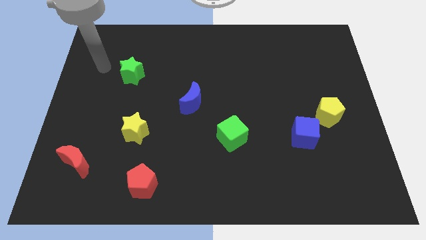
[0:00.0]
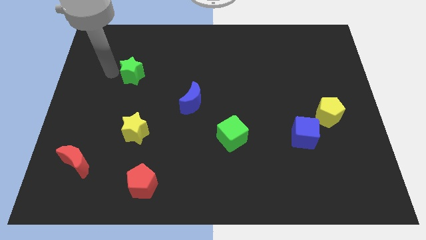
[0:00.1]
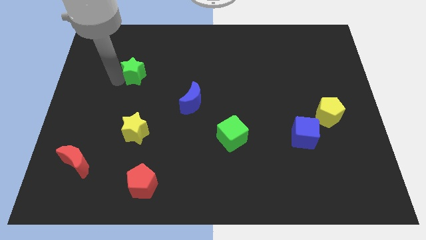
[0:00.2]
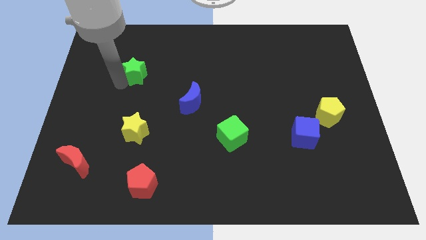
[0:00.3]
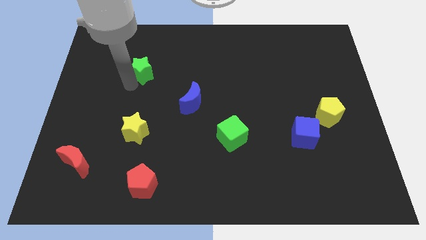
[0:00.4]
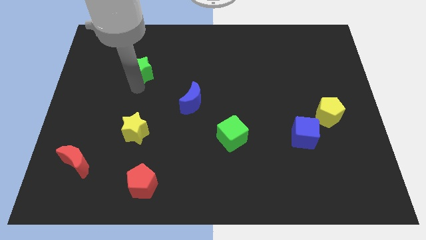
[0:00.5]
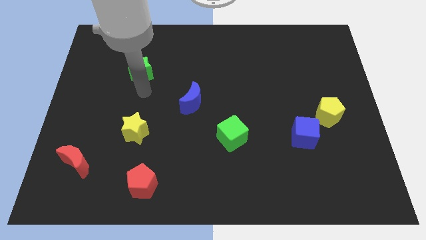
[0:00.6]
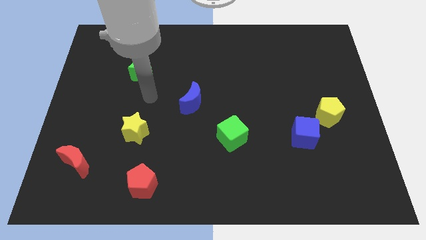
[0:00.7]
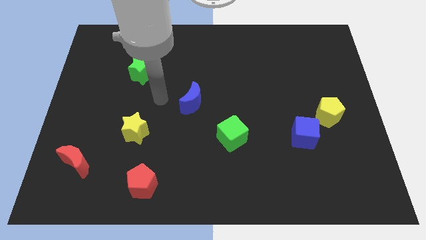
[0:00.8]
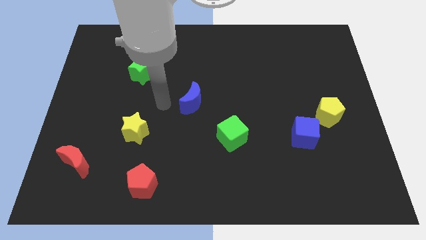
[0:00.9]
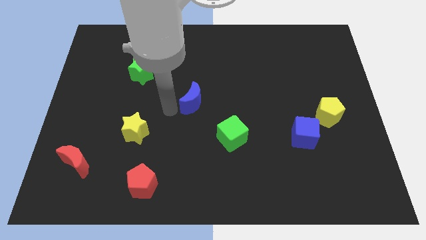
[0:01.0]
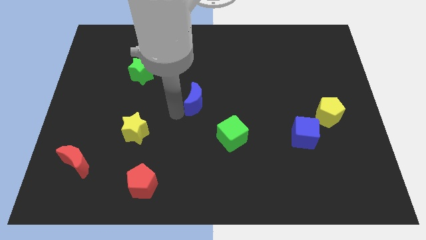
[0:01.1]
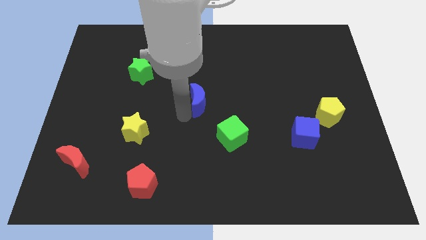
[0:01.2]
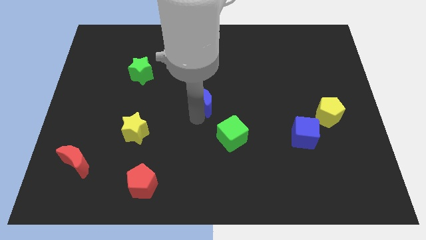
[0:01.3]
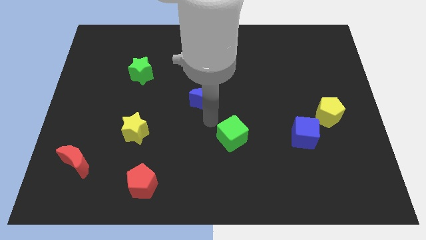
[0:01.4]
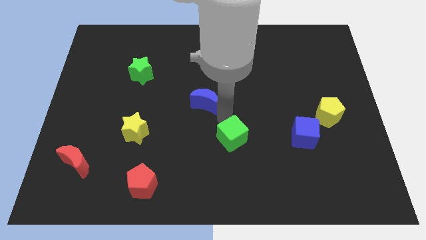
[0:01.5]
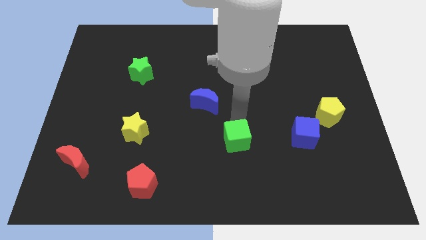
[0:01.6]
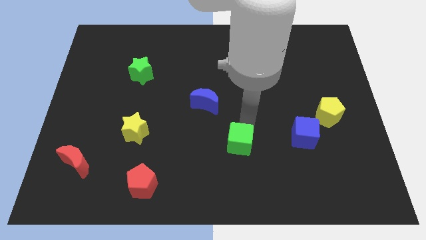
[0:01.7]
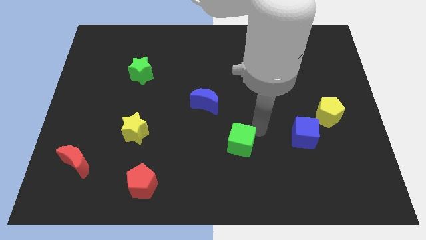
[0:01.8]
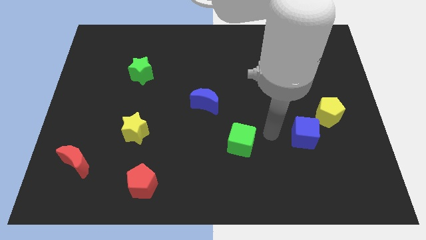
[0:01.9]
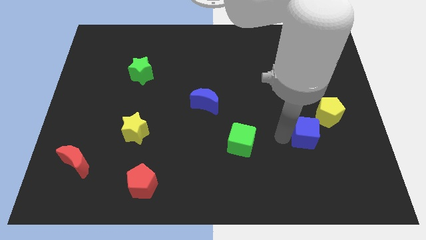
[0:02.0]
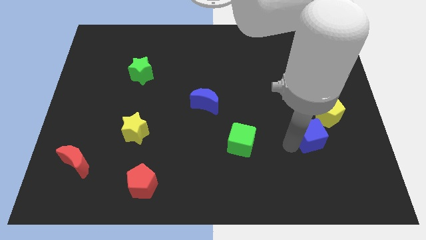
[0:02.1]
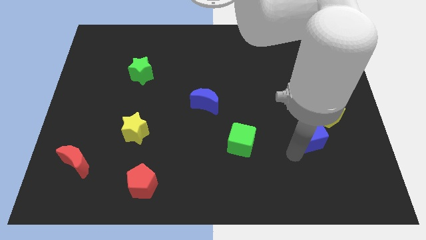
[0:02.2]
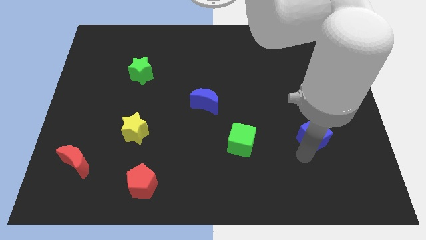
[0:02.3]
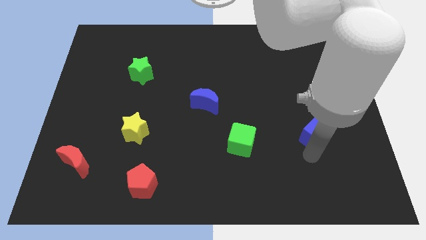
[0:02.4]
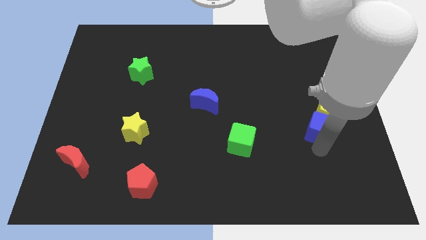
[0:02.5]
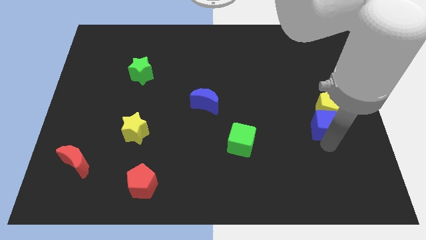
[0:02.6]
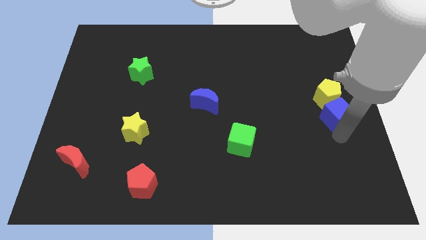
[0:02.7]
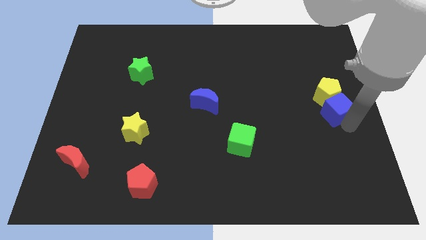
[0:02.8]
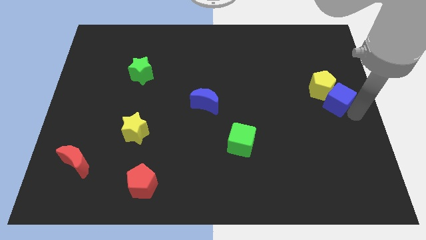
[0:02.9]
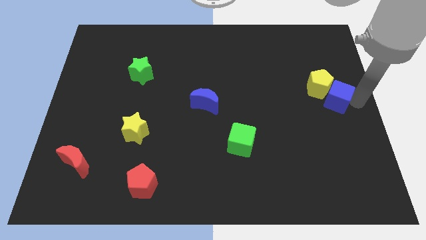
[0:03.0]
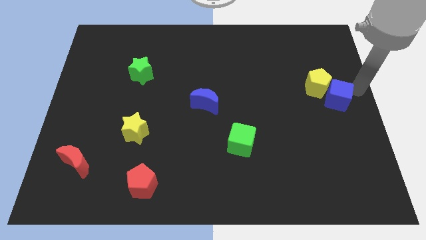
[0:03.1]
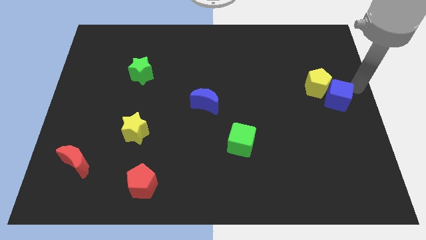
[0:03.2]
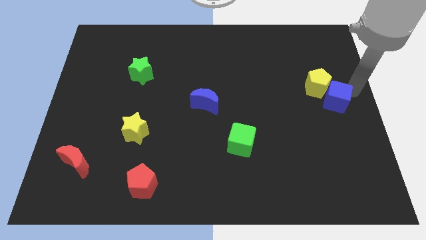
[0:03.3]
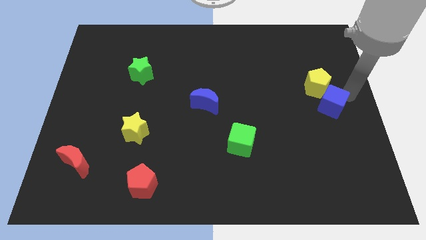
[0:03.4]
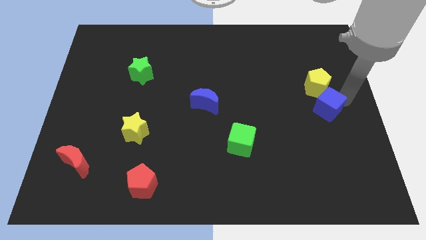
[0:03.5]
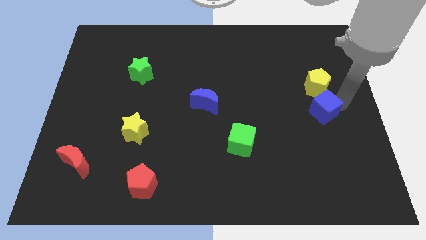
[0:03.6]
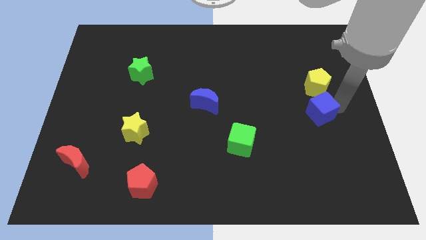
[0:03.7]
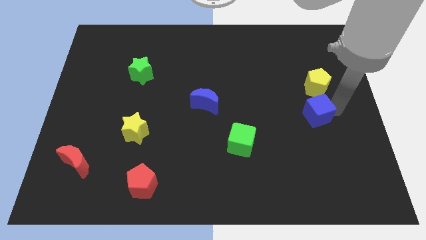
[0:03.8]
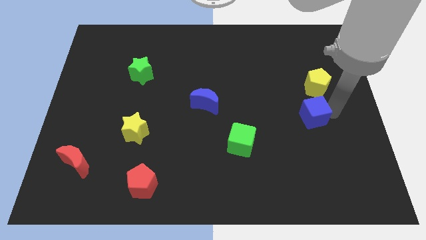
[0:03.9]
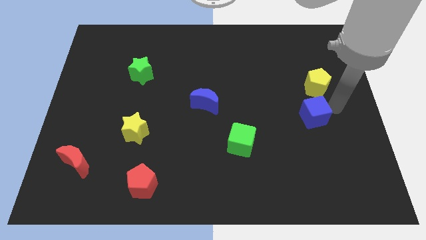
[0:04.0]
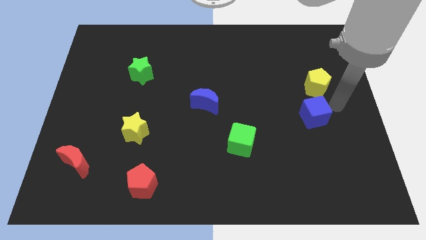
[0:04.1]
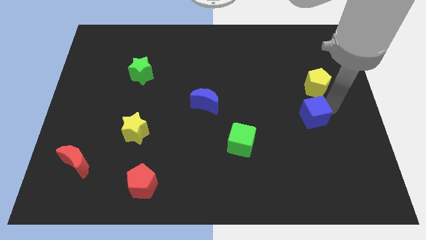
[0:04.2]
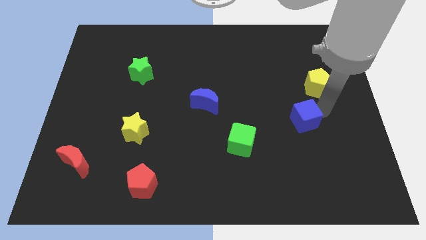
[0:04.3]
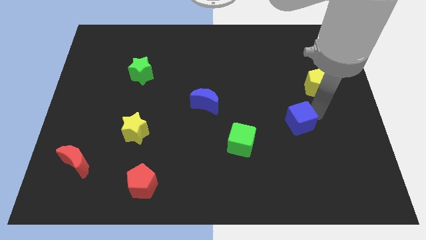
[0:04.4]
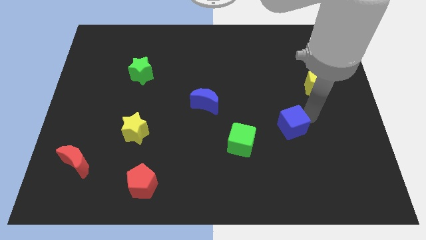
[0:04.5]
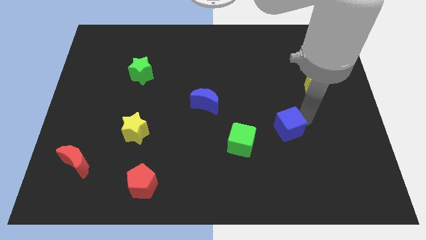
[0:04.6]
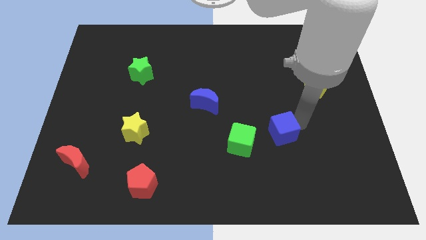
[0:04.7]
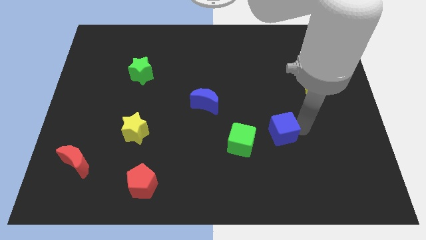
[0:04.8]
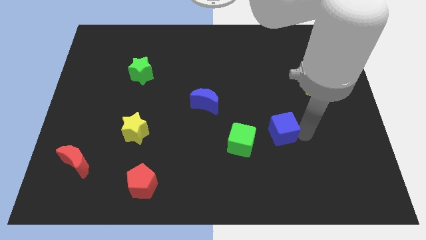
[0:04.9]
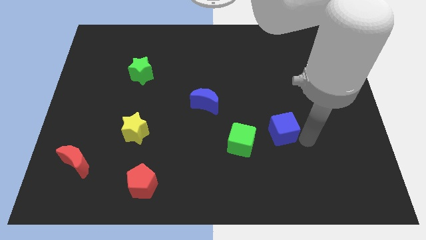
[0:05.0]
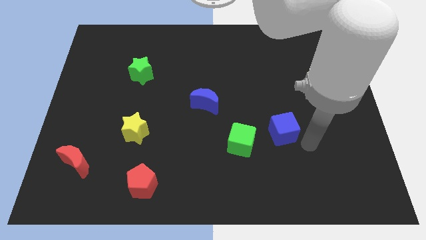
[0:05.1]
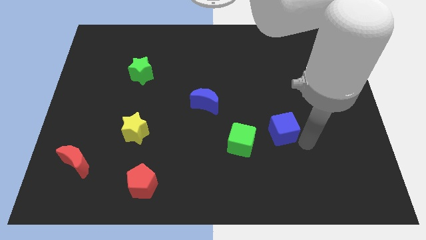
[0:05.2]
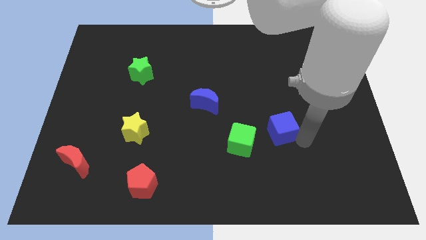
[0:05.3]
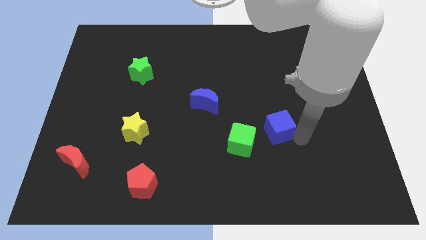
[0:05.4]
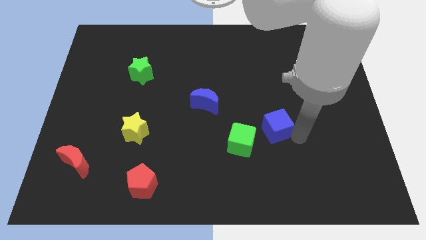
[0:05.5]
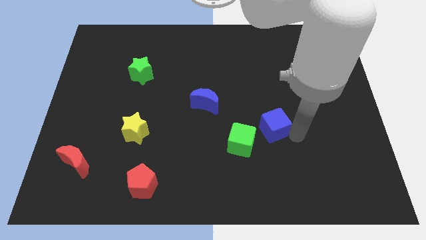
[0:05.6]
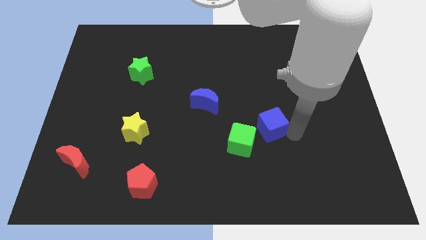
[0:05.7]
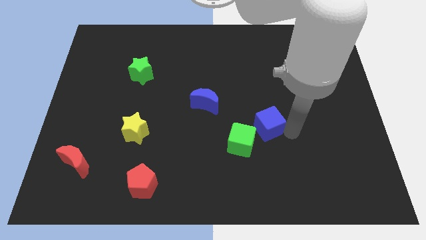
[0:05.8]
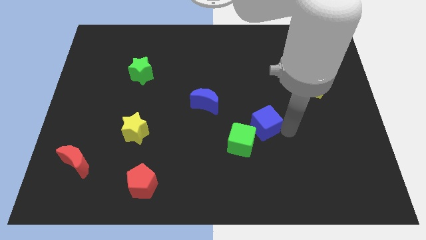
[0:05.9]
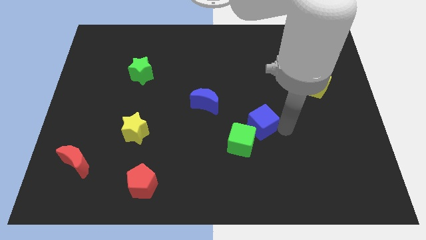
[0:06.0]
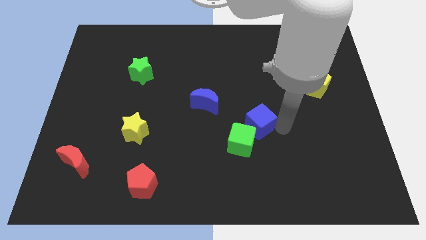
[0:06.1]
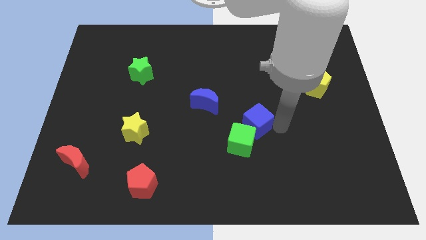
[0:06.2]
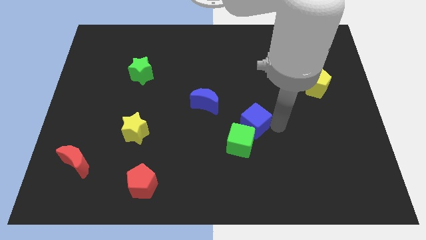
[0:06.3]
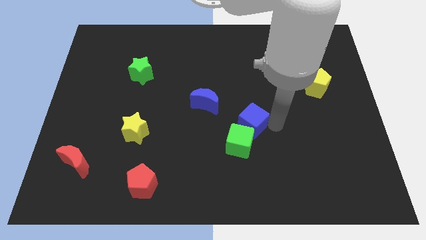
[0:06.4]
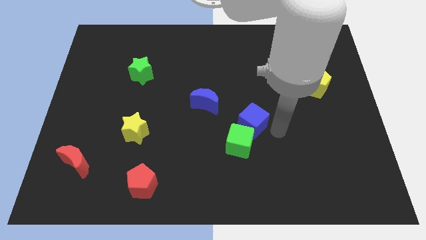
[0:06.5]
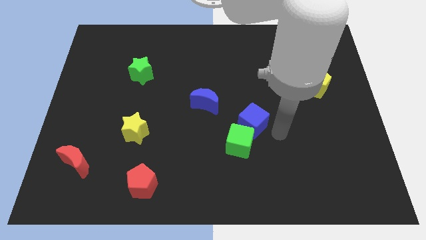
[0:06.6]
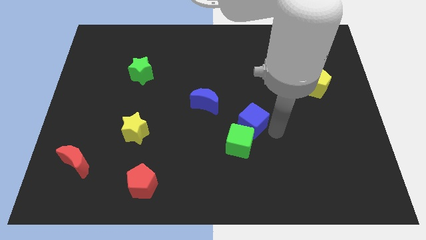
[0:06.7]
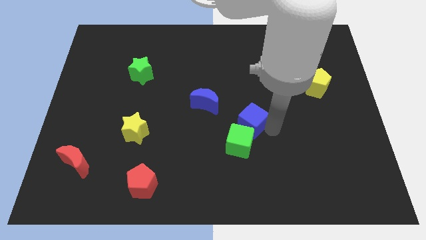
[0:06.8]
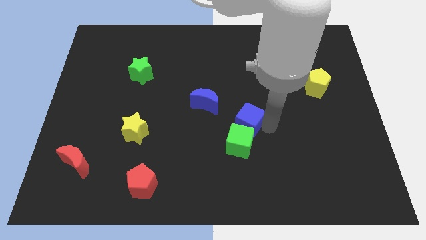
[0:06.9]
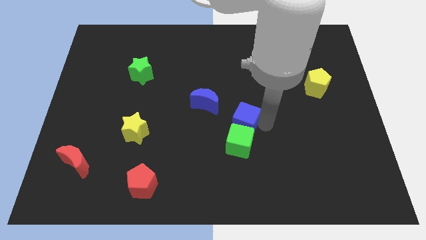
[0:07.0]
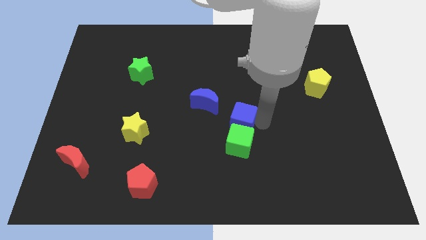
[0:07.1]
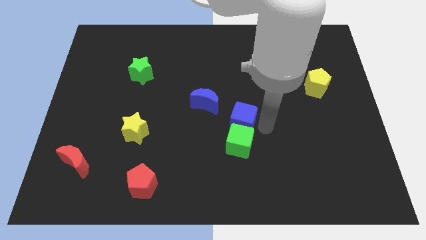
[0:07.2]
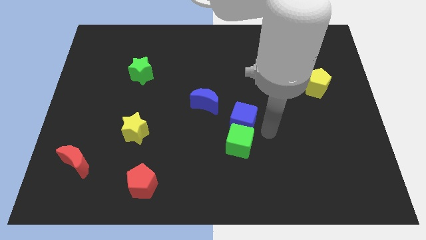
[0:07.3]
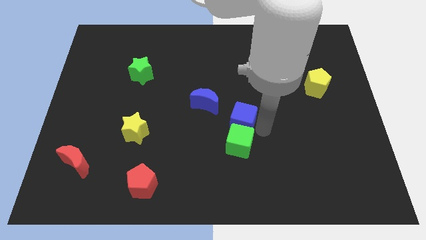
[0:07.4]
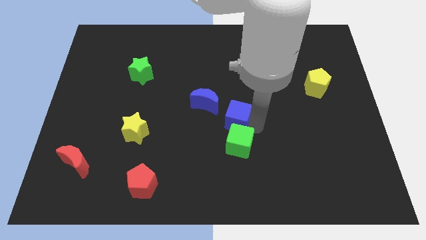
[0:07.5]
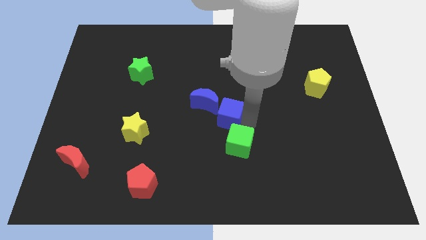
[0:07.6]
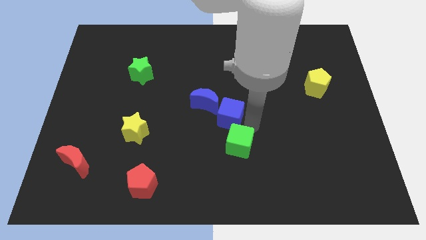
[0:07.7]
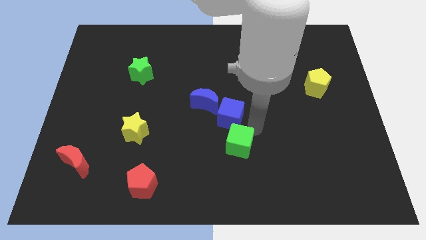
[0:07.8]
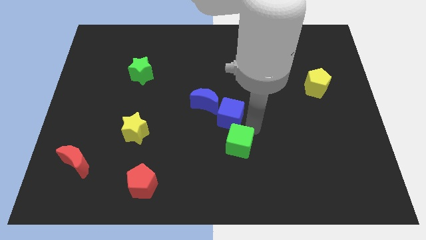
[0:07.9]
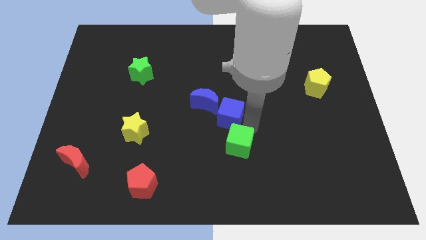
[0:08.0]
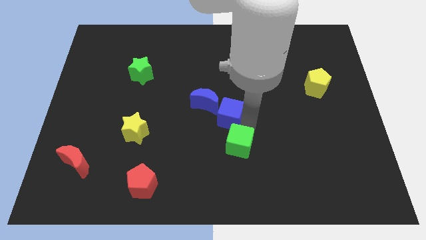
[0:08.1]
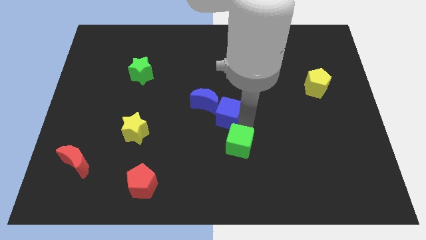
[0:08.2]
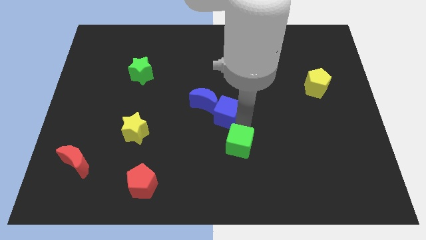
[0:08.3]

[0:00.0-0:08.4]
slide the blue cube close to the blue moon
